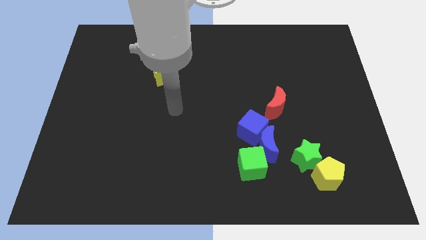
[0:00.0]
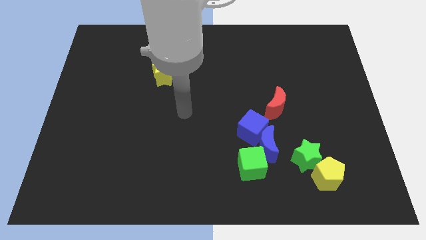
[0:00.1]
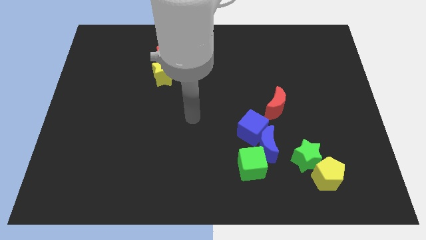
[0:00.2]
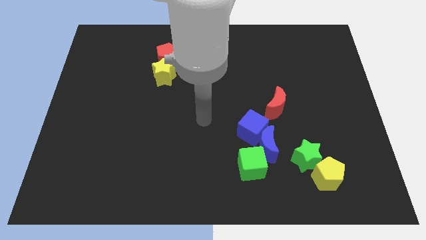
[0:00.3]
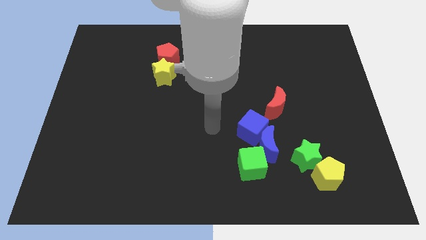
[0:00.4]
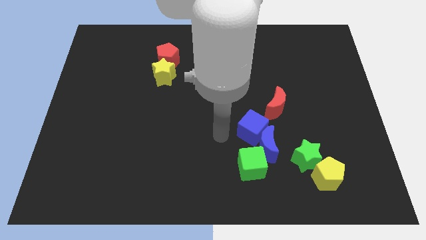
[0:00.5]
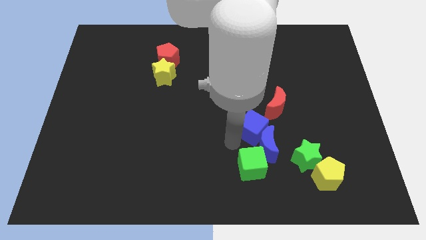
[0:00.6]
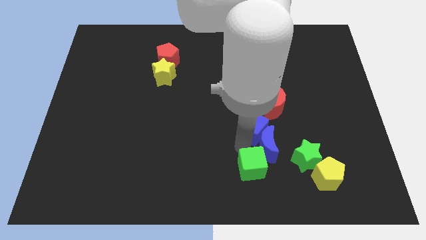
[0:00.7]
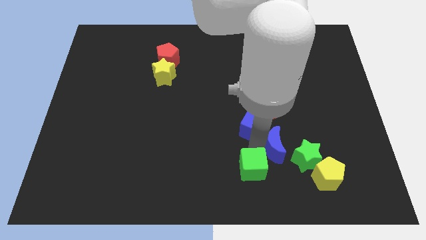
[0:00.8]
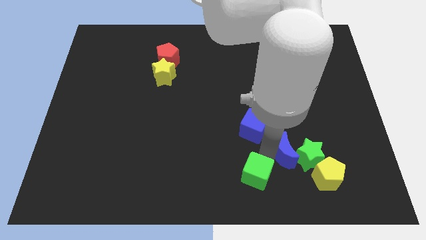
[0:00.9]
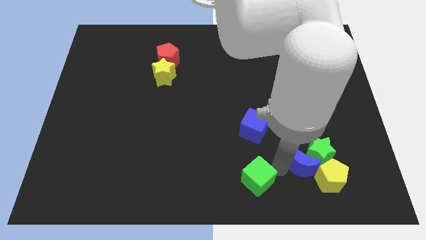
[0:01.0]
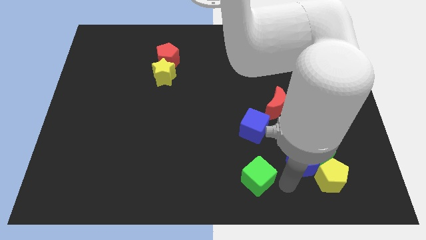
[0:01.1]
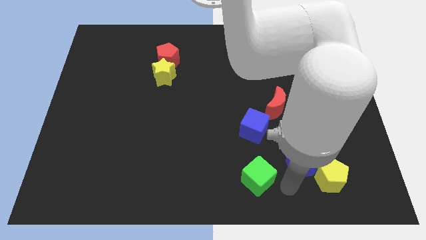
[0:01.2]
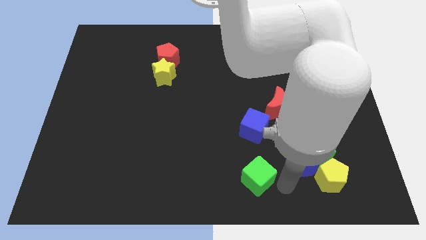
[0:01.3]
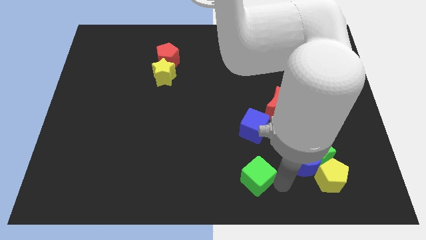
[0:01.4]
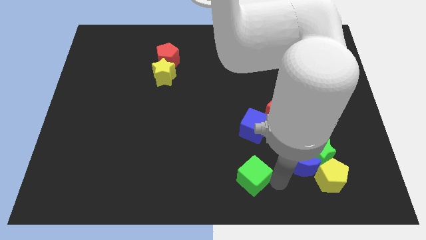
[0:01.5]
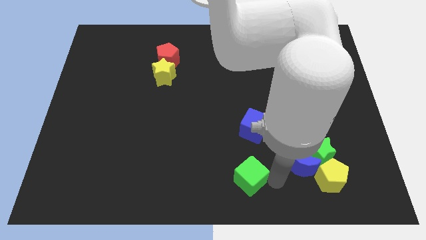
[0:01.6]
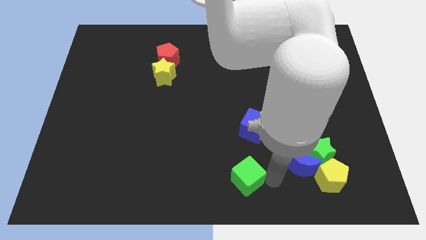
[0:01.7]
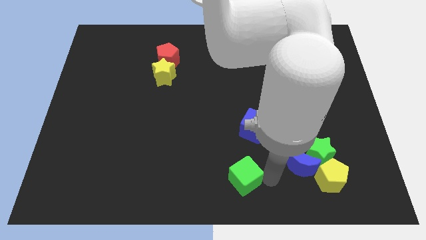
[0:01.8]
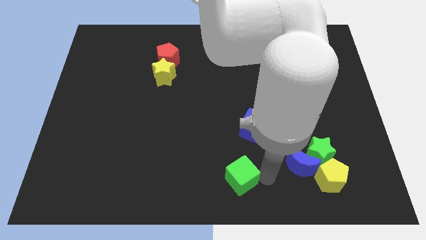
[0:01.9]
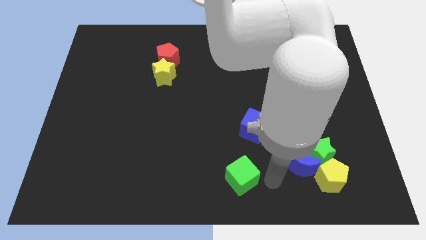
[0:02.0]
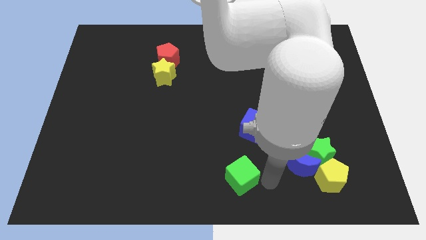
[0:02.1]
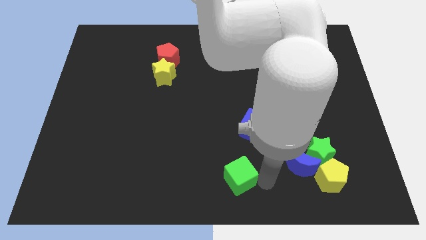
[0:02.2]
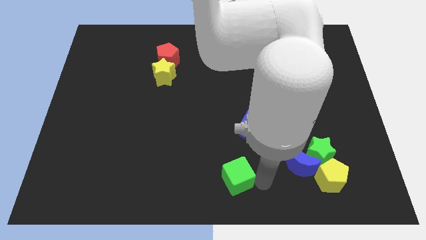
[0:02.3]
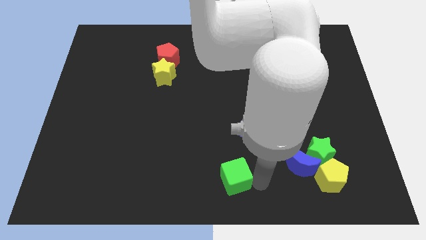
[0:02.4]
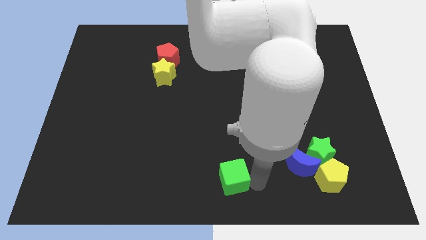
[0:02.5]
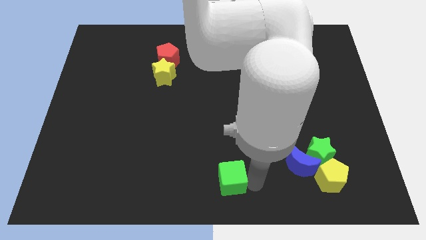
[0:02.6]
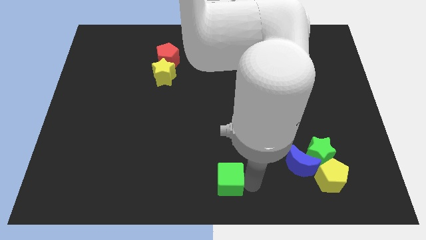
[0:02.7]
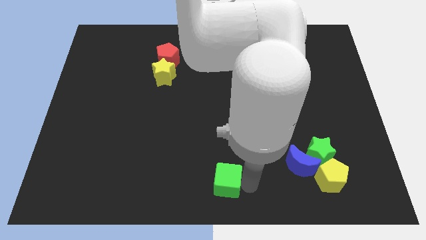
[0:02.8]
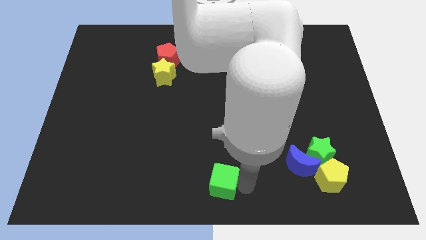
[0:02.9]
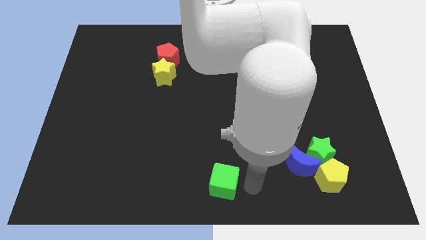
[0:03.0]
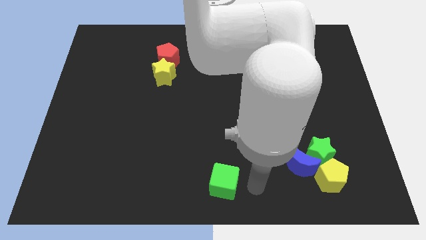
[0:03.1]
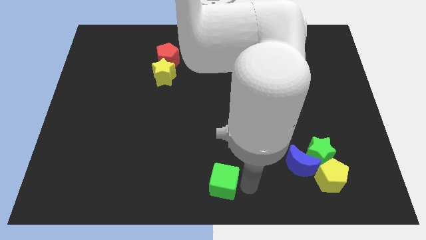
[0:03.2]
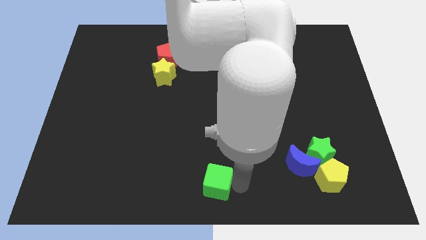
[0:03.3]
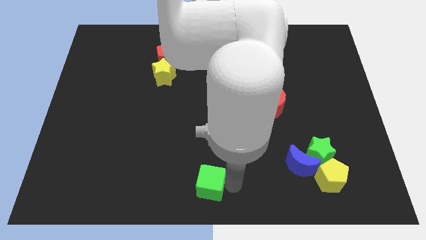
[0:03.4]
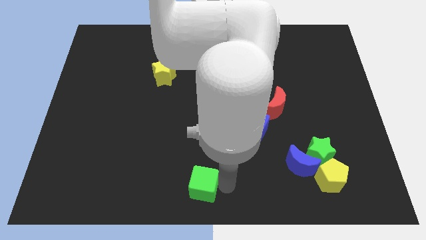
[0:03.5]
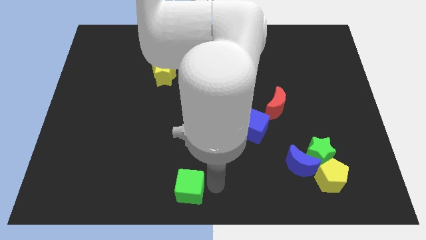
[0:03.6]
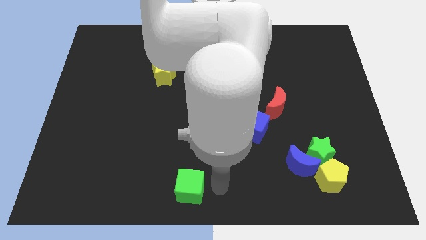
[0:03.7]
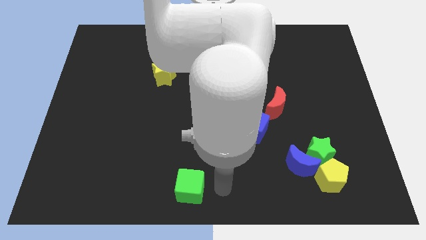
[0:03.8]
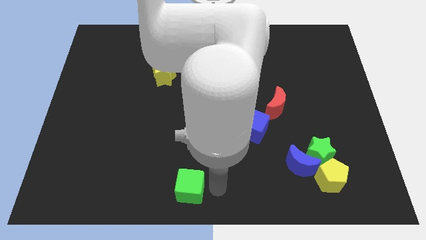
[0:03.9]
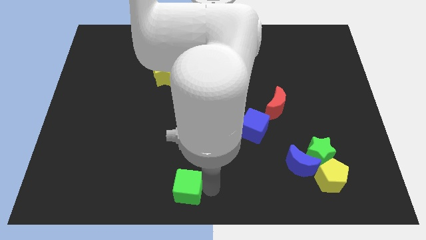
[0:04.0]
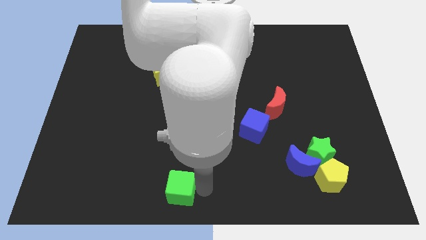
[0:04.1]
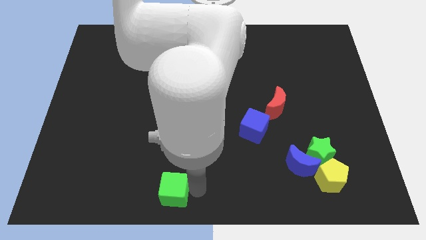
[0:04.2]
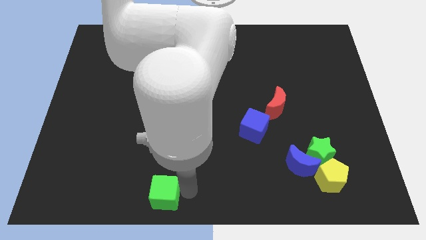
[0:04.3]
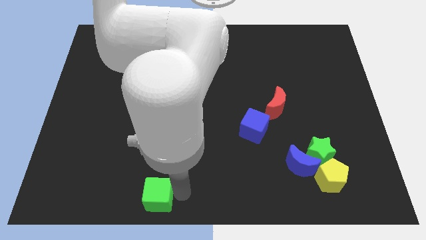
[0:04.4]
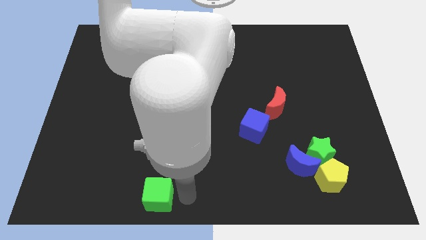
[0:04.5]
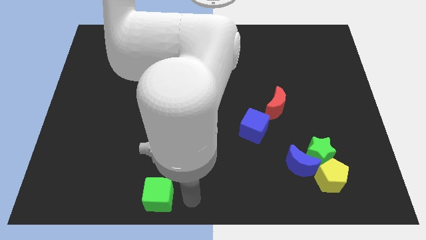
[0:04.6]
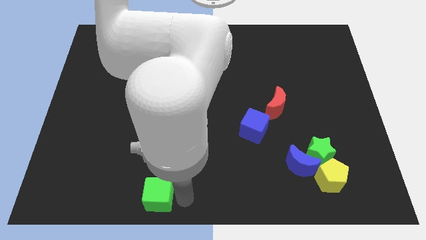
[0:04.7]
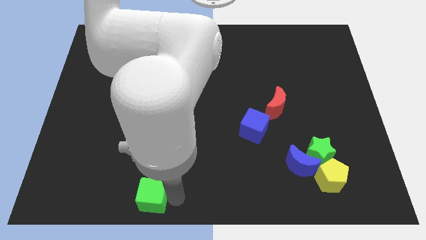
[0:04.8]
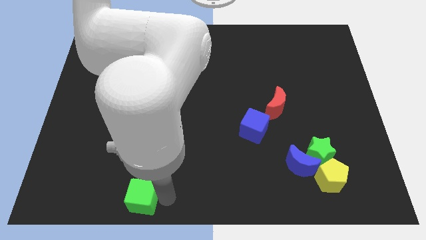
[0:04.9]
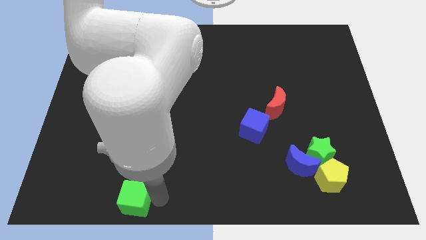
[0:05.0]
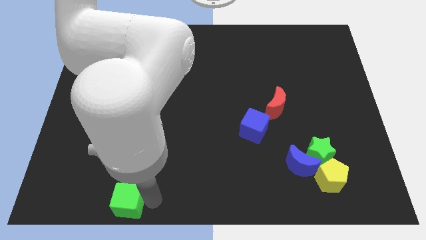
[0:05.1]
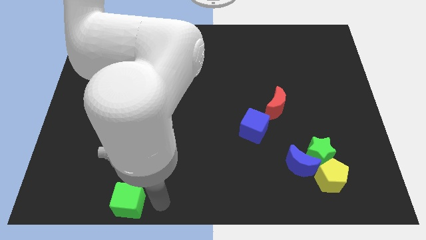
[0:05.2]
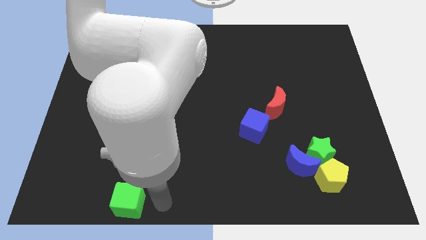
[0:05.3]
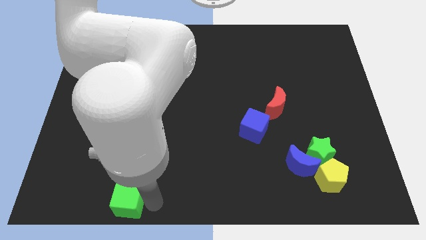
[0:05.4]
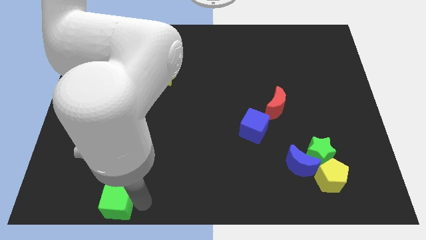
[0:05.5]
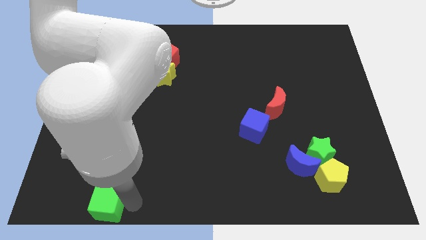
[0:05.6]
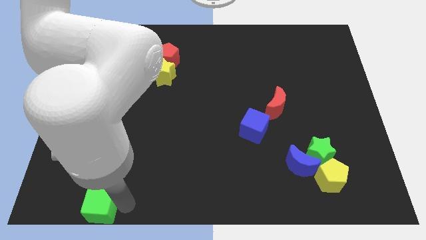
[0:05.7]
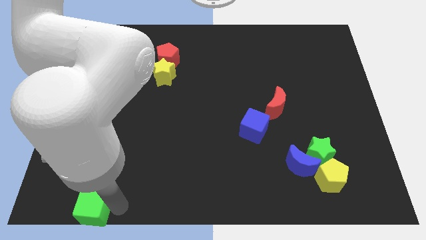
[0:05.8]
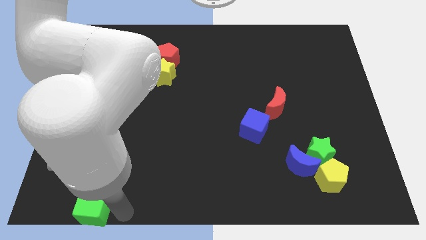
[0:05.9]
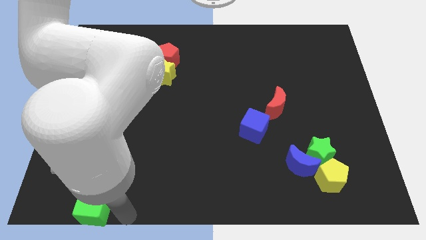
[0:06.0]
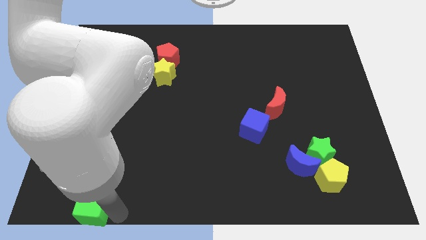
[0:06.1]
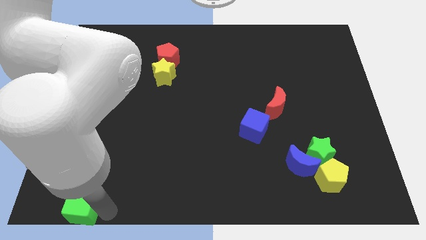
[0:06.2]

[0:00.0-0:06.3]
put the green cube to the lower left corner
